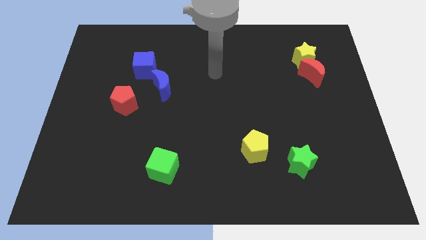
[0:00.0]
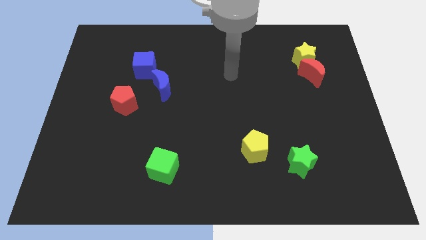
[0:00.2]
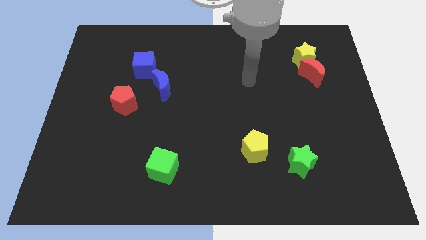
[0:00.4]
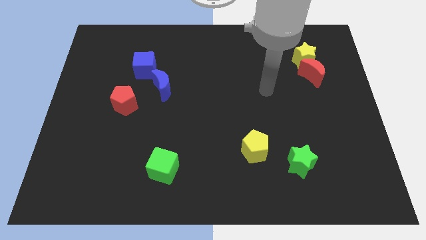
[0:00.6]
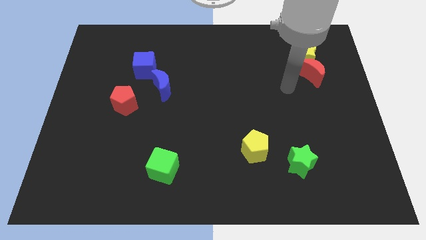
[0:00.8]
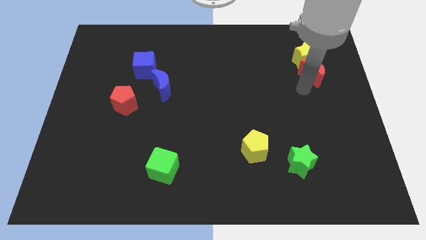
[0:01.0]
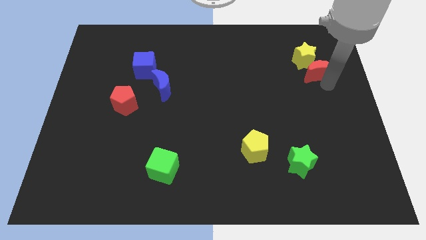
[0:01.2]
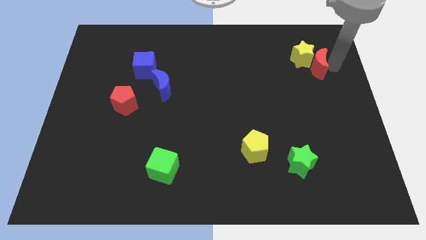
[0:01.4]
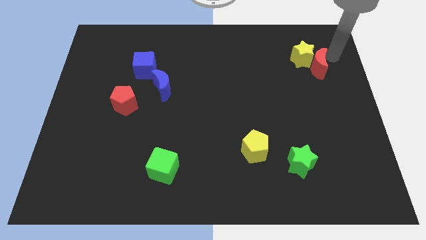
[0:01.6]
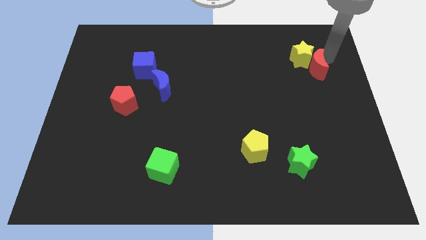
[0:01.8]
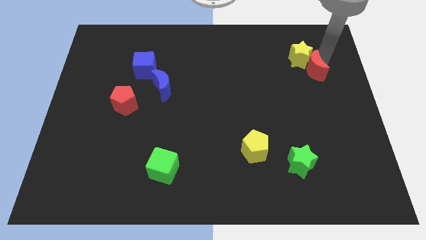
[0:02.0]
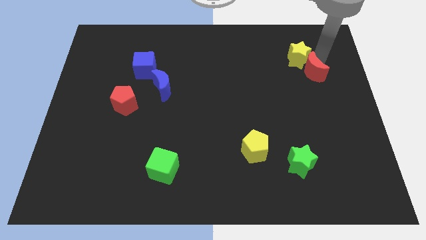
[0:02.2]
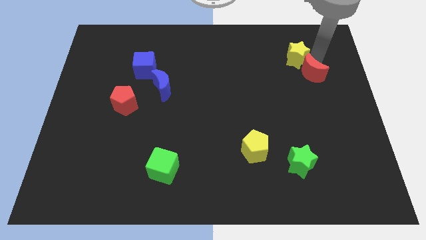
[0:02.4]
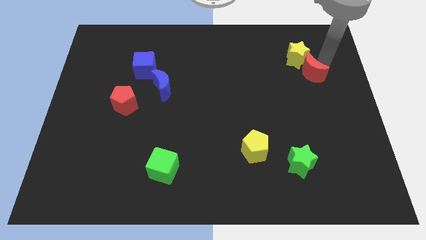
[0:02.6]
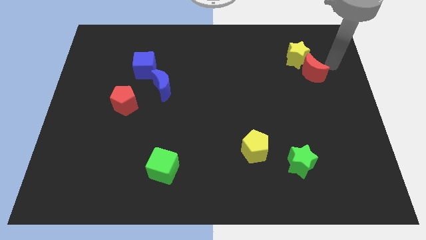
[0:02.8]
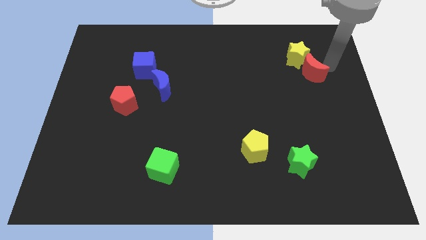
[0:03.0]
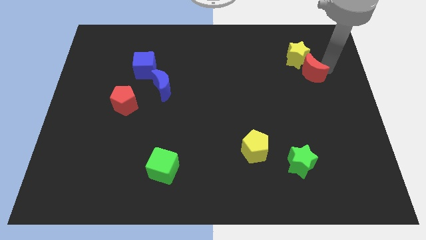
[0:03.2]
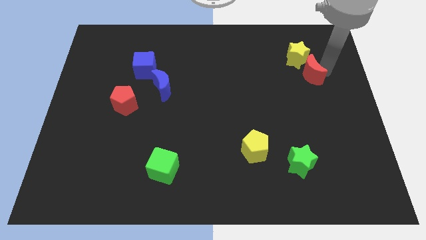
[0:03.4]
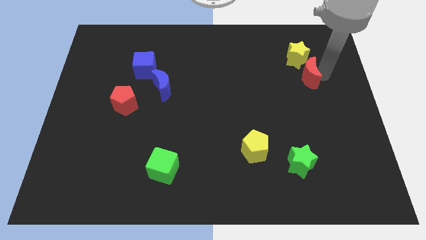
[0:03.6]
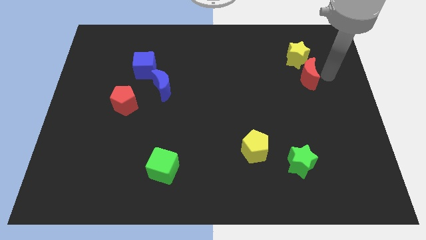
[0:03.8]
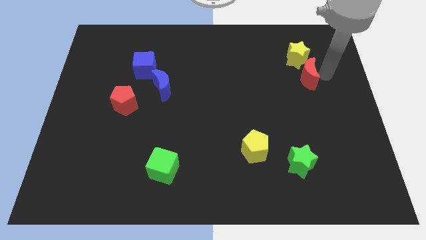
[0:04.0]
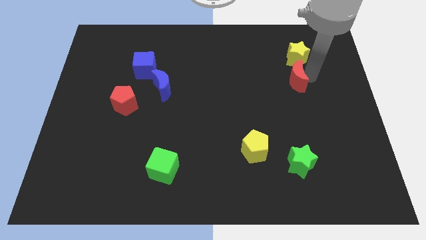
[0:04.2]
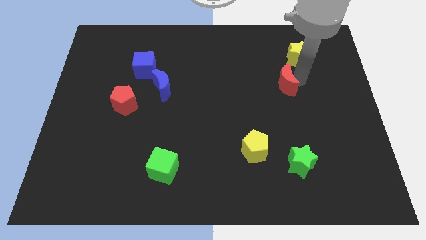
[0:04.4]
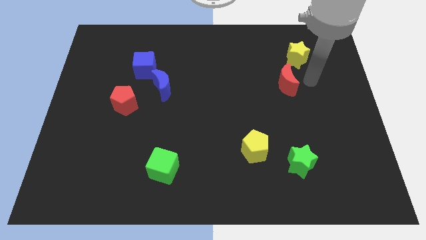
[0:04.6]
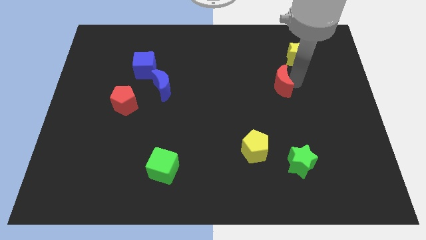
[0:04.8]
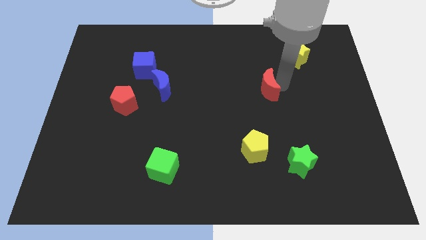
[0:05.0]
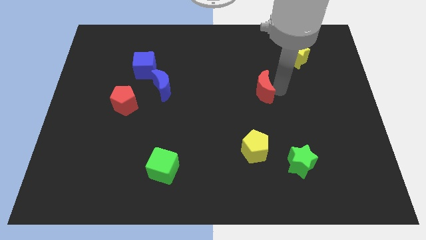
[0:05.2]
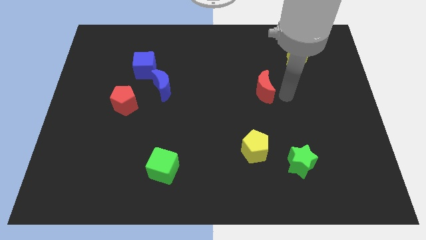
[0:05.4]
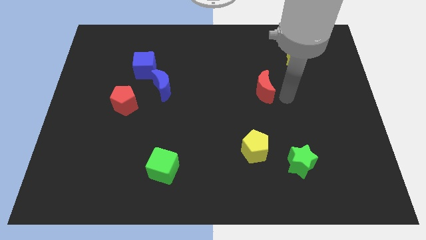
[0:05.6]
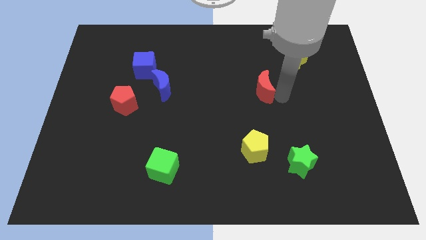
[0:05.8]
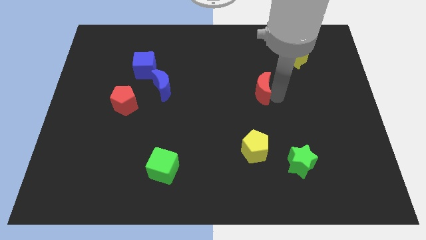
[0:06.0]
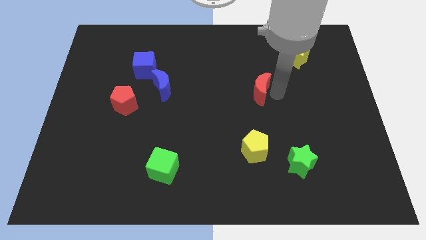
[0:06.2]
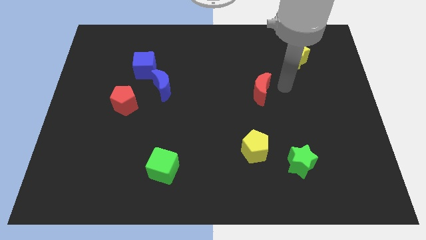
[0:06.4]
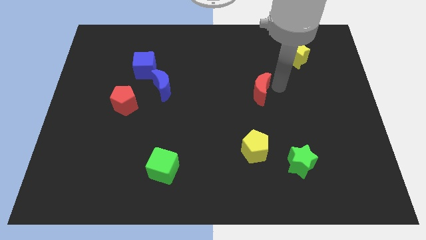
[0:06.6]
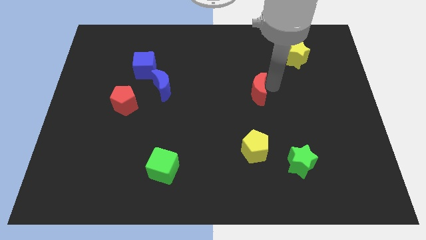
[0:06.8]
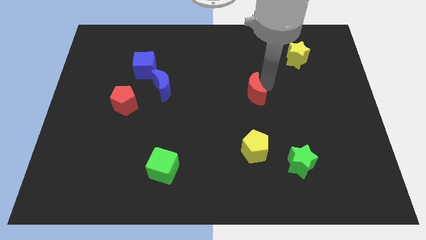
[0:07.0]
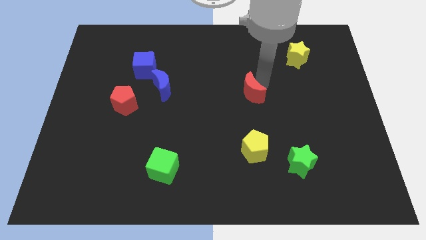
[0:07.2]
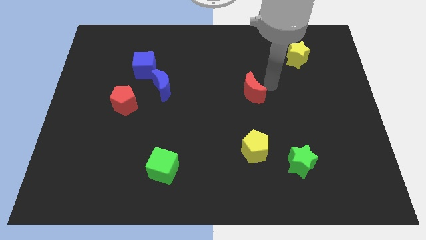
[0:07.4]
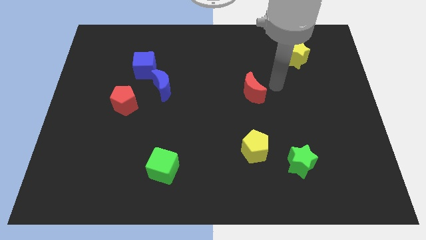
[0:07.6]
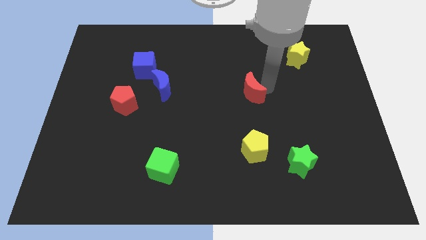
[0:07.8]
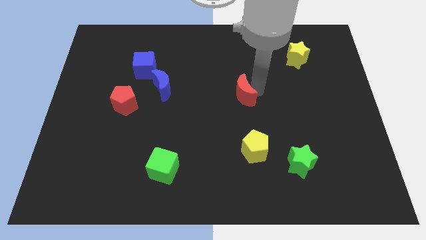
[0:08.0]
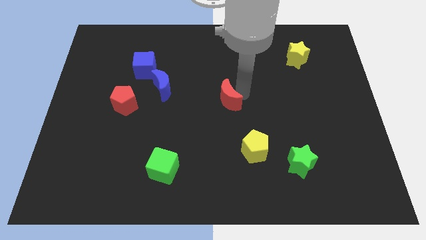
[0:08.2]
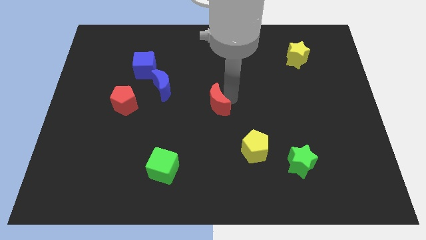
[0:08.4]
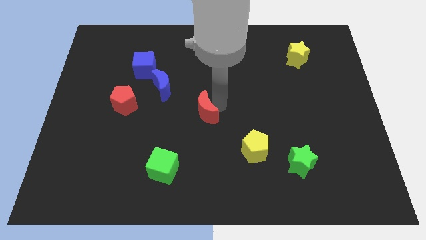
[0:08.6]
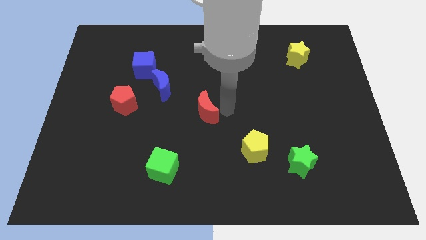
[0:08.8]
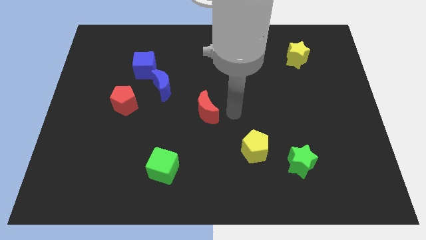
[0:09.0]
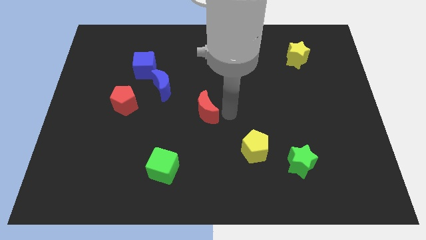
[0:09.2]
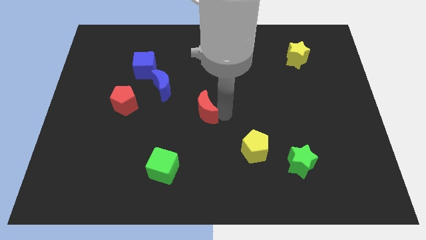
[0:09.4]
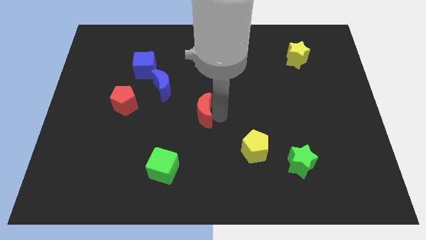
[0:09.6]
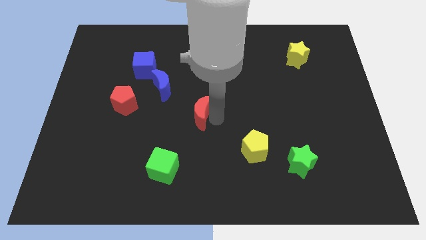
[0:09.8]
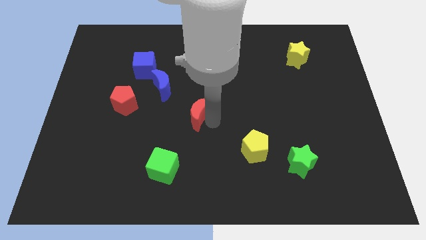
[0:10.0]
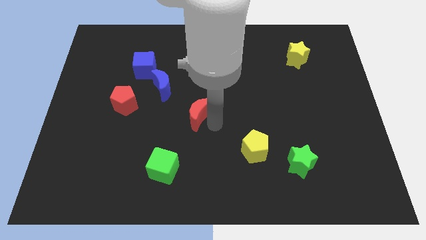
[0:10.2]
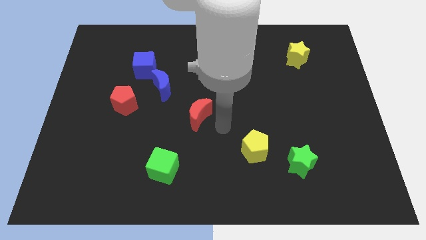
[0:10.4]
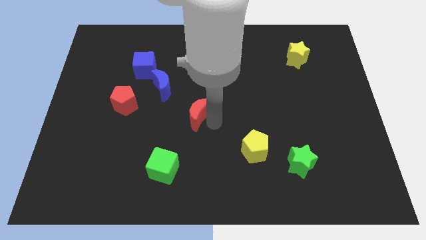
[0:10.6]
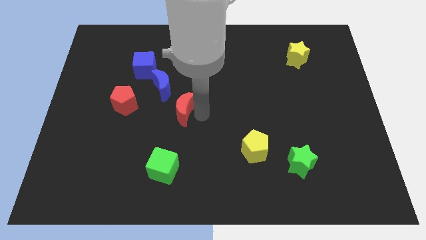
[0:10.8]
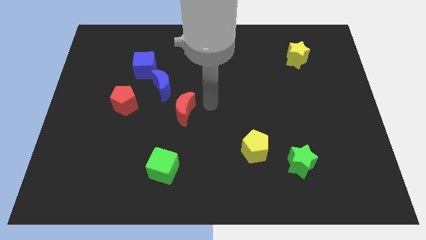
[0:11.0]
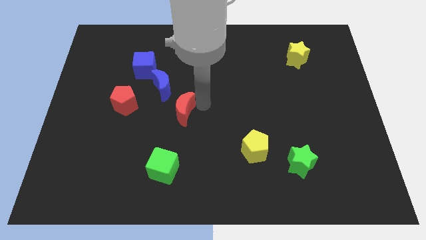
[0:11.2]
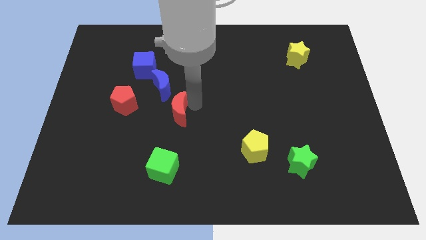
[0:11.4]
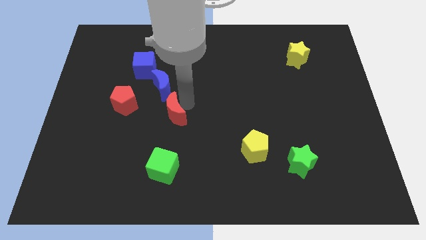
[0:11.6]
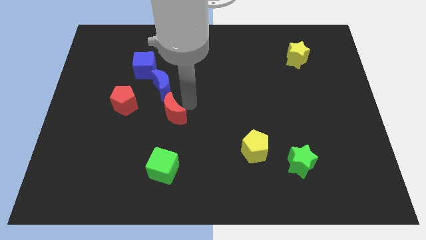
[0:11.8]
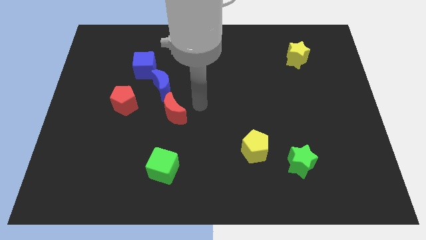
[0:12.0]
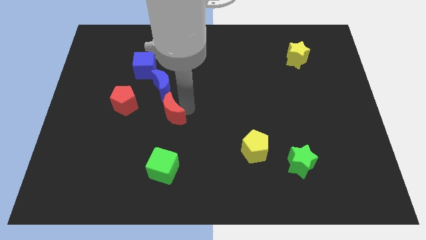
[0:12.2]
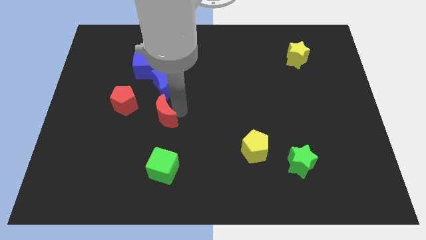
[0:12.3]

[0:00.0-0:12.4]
move the red moon to the bottom right of the red pentagon
